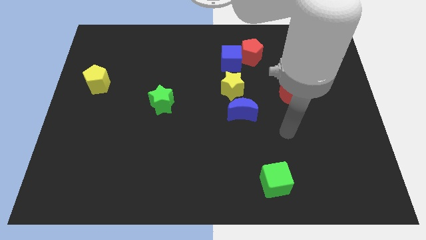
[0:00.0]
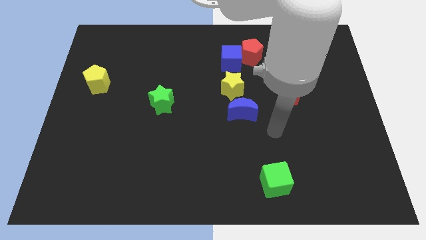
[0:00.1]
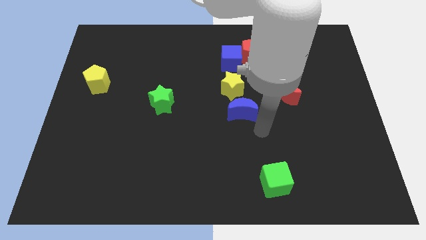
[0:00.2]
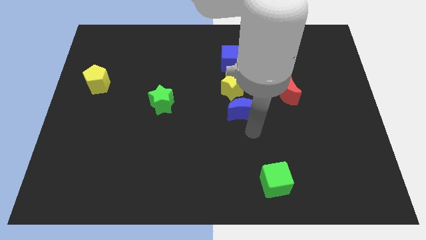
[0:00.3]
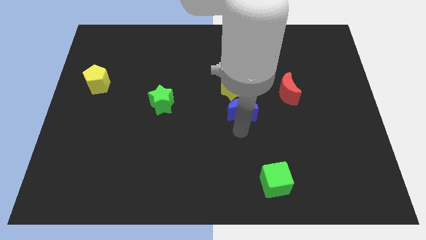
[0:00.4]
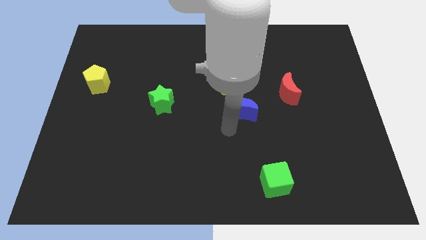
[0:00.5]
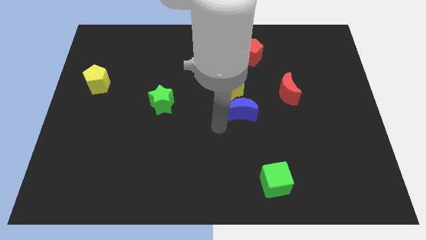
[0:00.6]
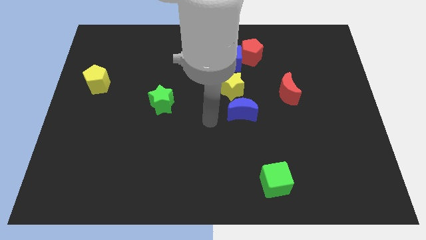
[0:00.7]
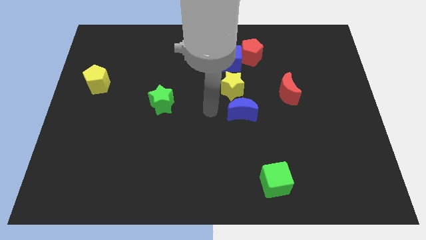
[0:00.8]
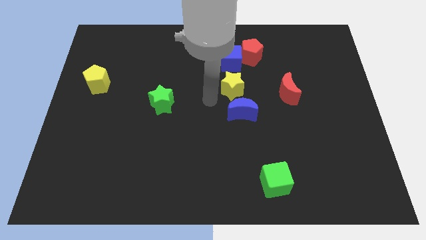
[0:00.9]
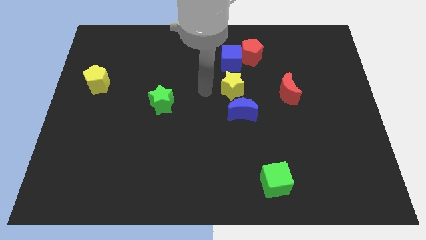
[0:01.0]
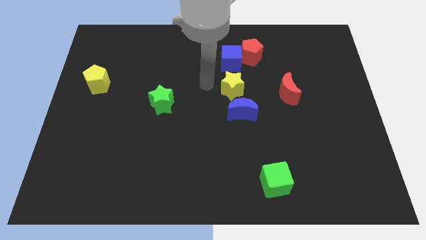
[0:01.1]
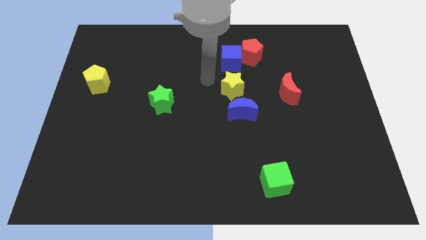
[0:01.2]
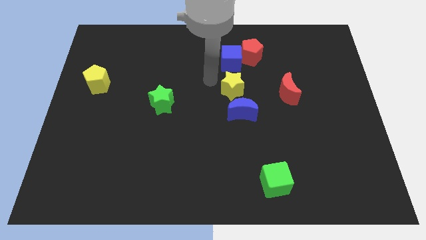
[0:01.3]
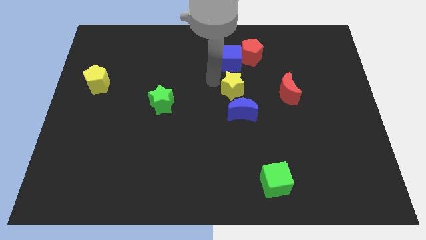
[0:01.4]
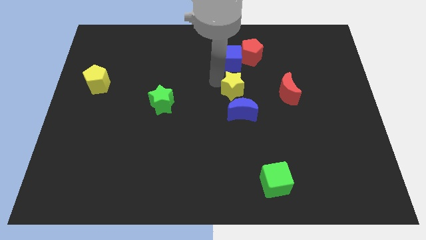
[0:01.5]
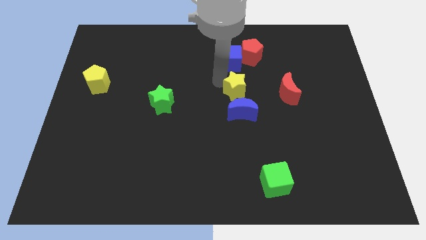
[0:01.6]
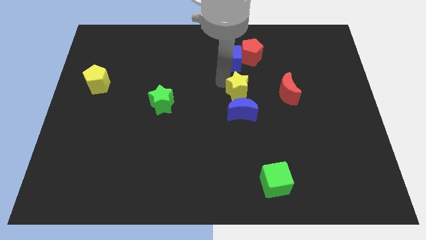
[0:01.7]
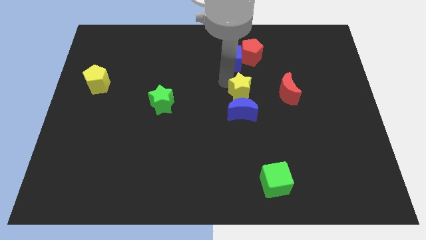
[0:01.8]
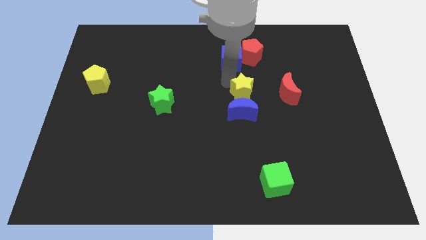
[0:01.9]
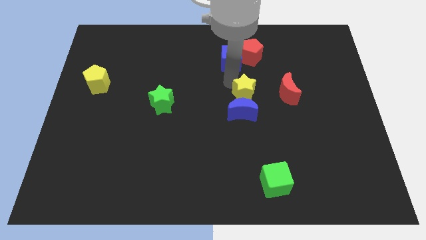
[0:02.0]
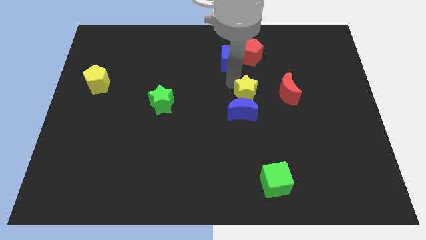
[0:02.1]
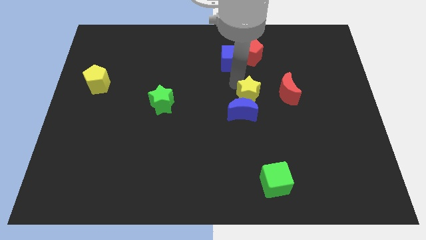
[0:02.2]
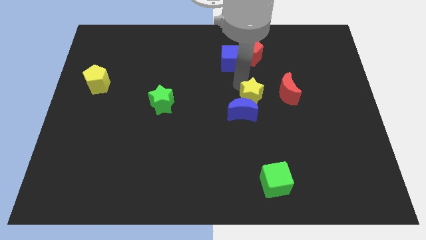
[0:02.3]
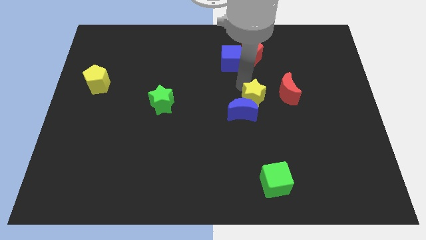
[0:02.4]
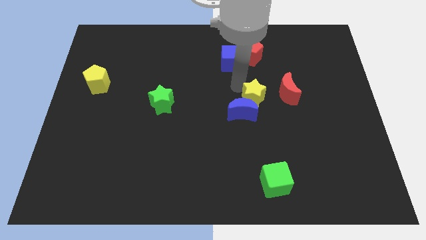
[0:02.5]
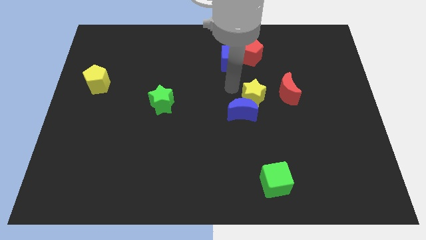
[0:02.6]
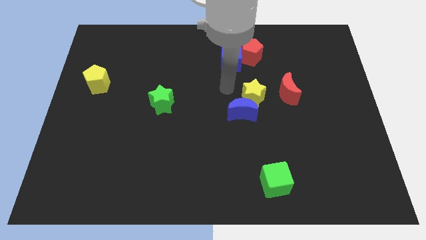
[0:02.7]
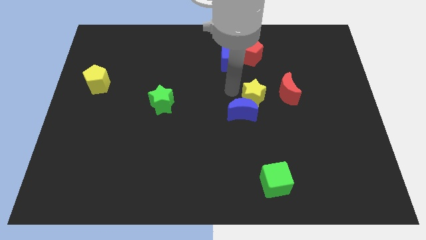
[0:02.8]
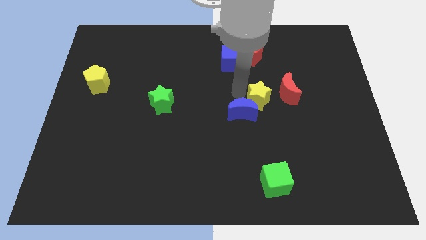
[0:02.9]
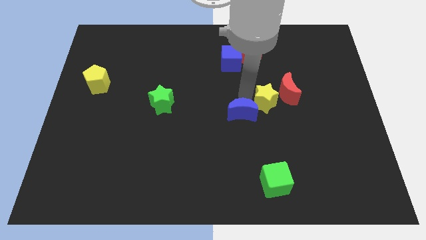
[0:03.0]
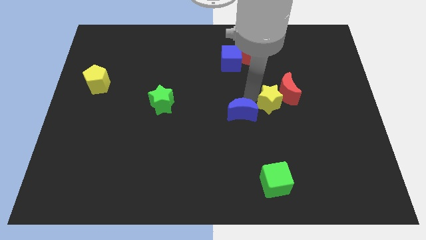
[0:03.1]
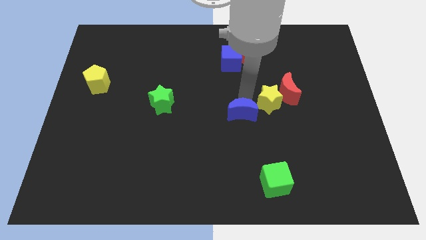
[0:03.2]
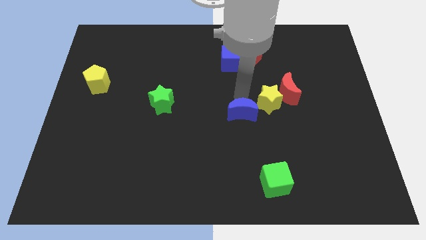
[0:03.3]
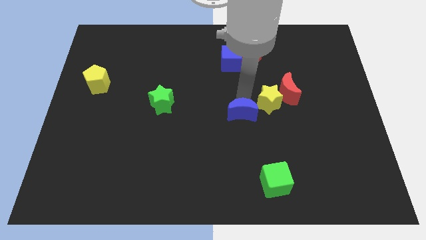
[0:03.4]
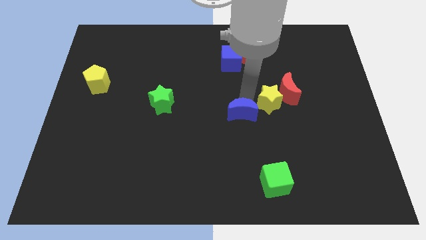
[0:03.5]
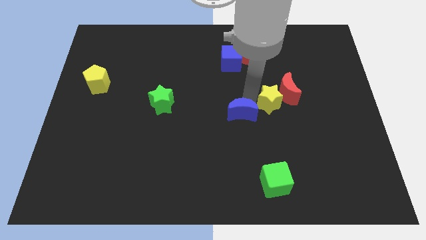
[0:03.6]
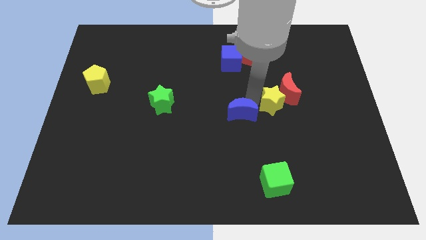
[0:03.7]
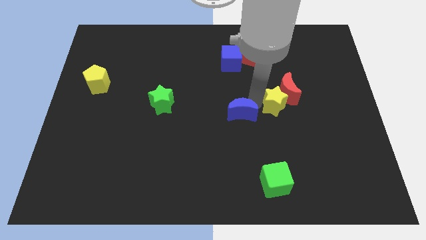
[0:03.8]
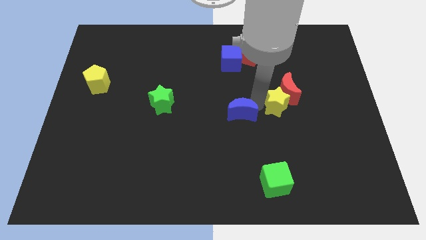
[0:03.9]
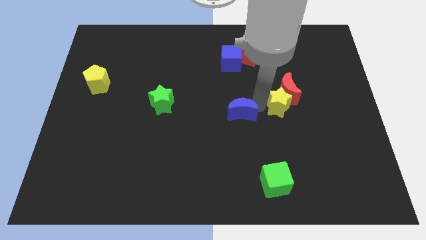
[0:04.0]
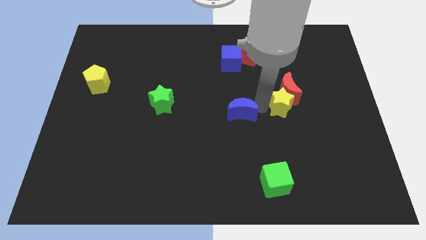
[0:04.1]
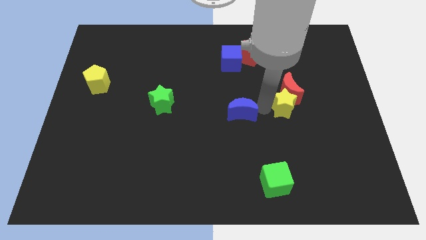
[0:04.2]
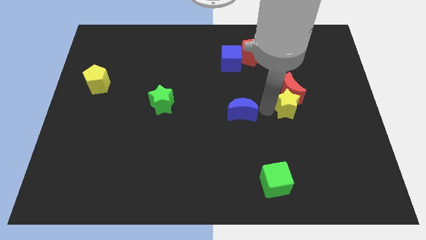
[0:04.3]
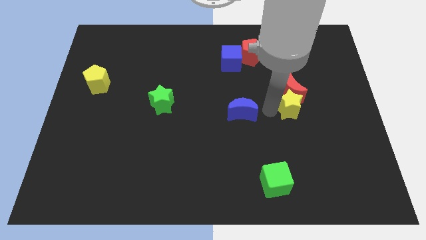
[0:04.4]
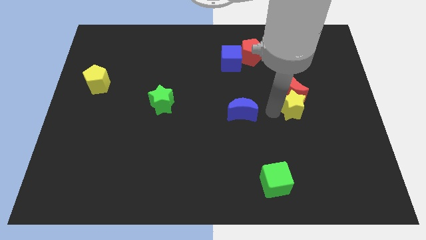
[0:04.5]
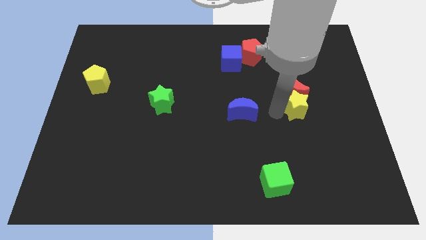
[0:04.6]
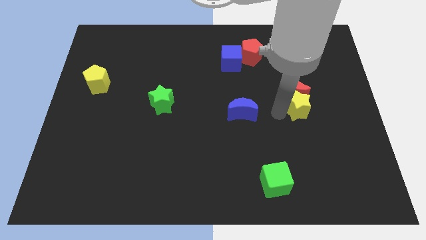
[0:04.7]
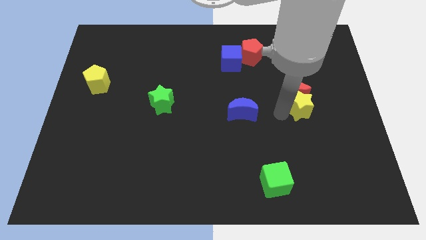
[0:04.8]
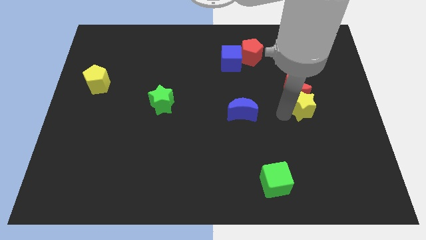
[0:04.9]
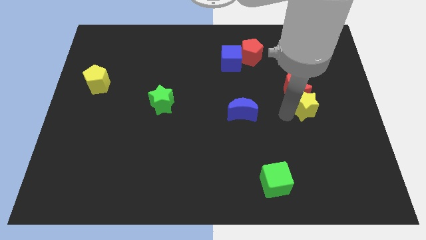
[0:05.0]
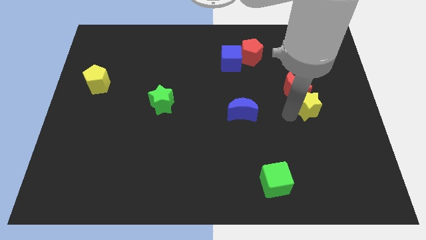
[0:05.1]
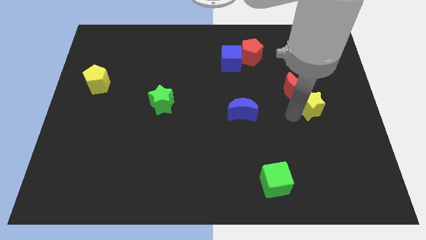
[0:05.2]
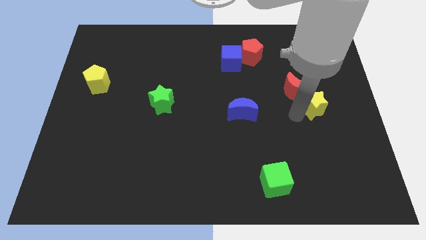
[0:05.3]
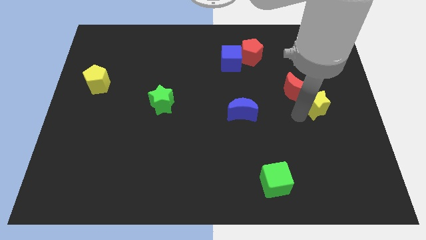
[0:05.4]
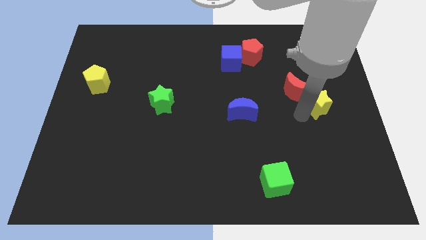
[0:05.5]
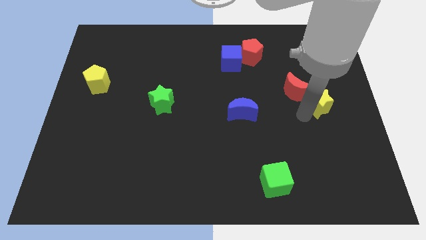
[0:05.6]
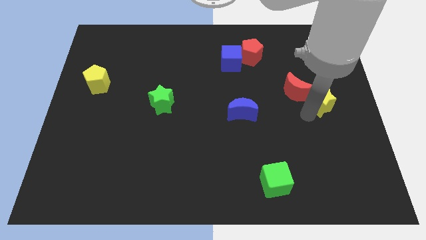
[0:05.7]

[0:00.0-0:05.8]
put the yellow star to the right side of the board

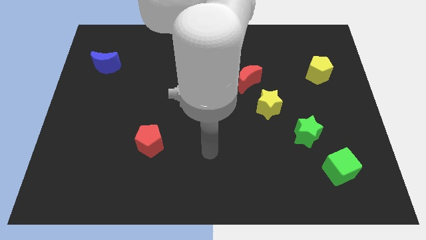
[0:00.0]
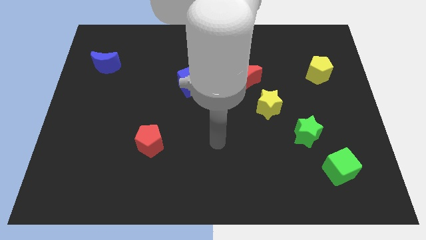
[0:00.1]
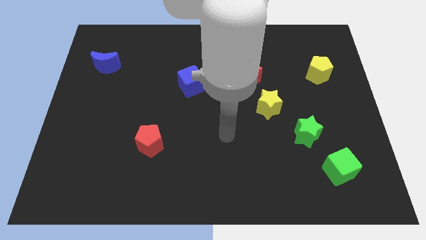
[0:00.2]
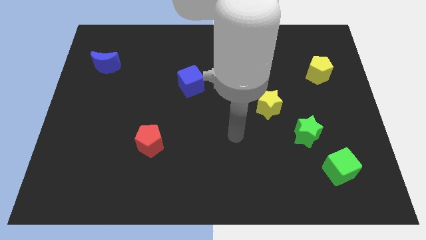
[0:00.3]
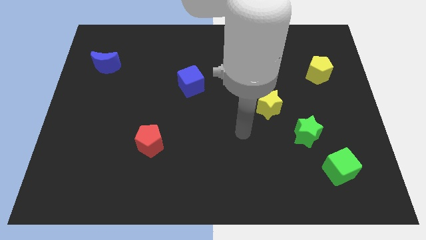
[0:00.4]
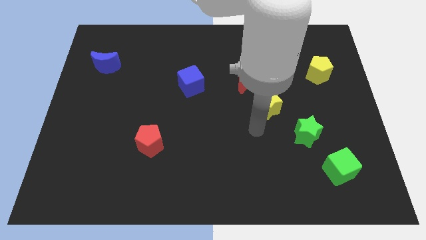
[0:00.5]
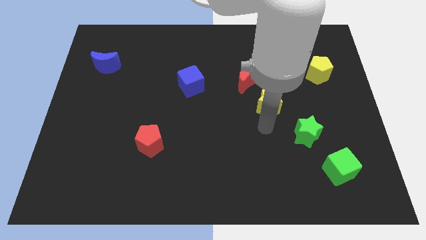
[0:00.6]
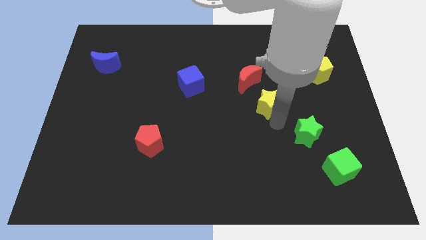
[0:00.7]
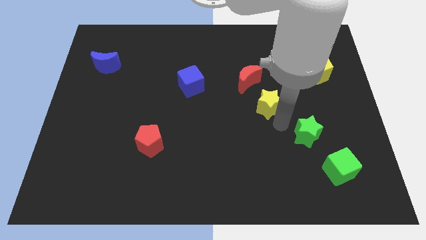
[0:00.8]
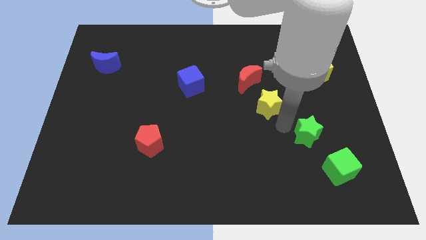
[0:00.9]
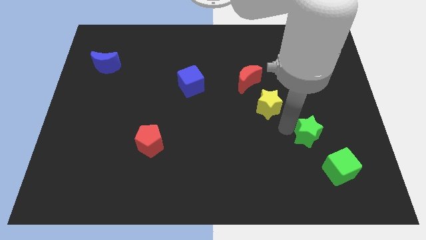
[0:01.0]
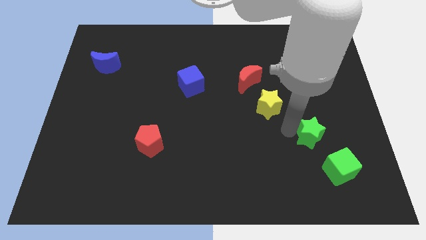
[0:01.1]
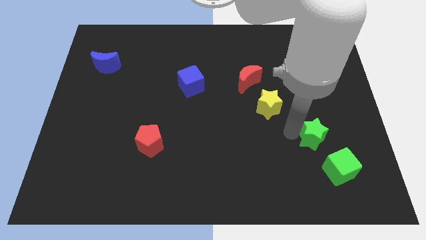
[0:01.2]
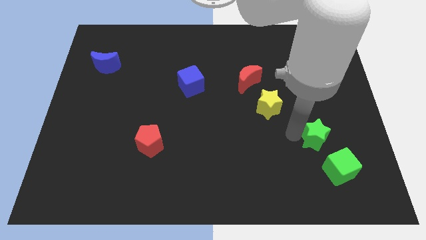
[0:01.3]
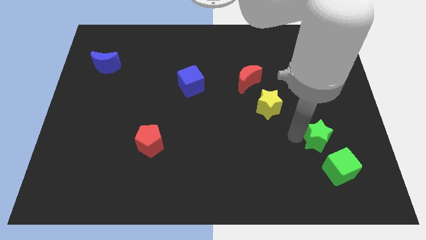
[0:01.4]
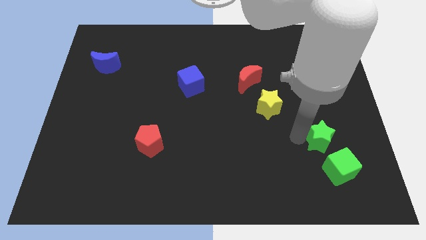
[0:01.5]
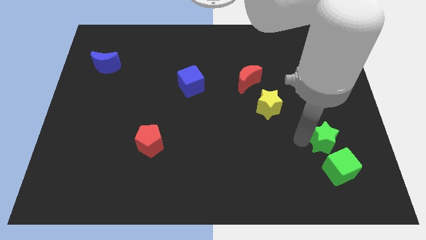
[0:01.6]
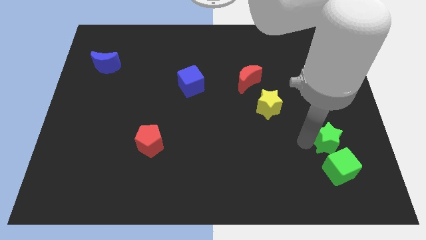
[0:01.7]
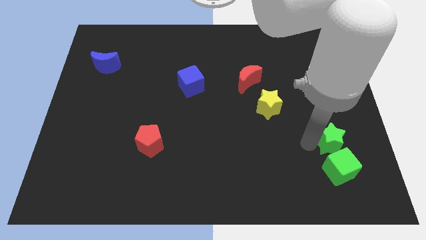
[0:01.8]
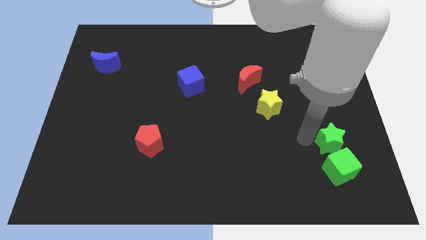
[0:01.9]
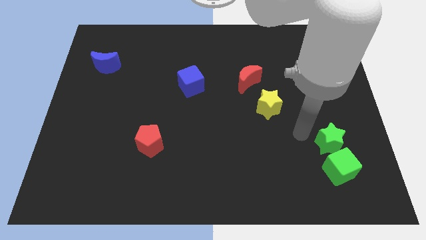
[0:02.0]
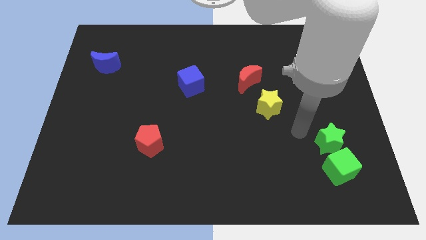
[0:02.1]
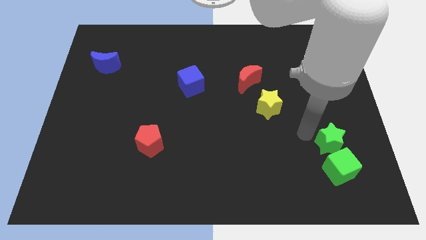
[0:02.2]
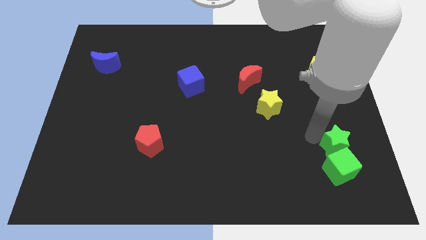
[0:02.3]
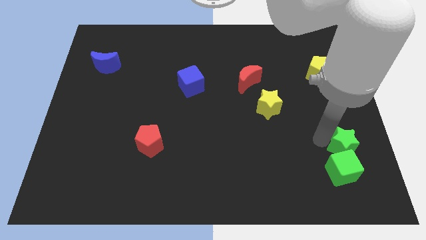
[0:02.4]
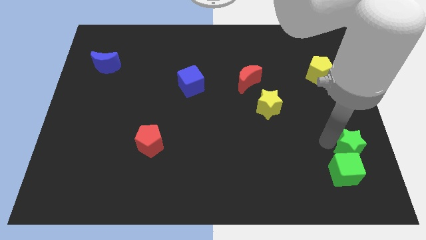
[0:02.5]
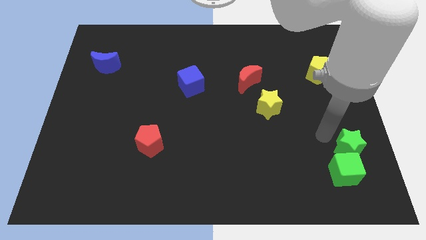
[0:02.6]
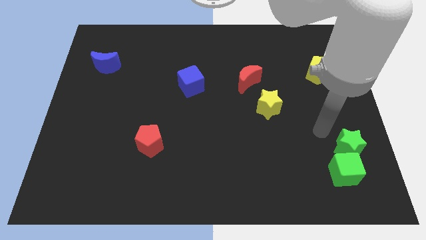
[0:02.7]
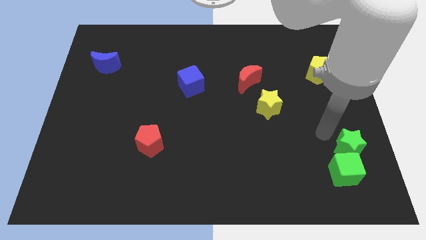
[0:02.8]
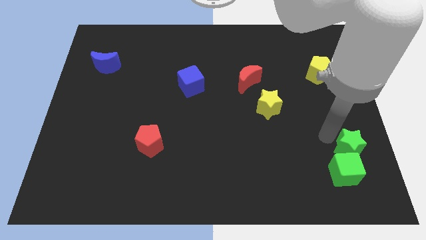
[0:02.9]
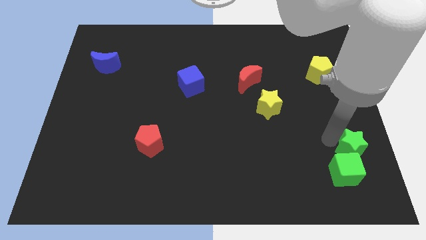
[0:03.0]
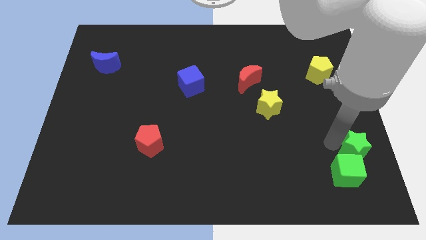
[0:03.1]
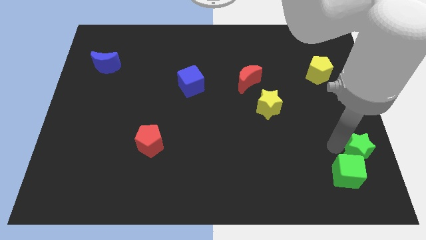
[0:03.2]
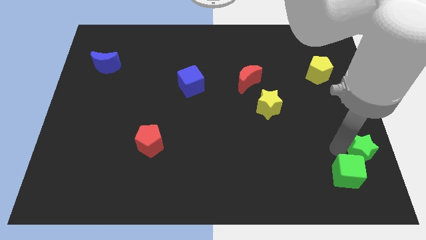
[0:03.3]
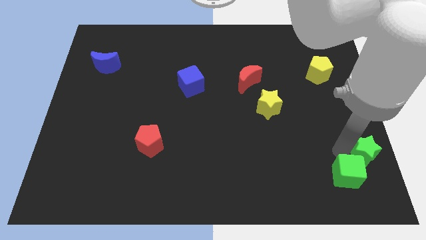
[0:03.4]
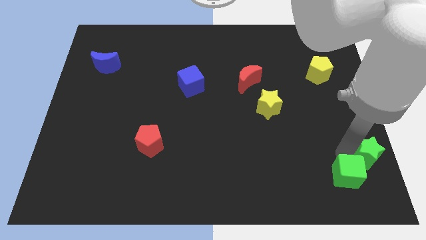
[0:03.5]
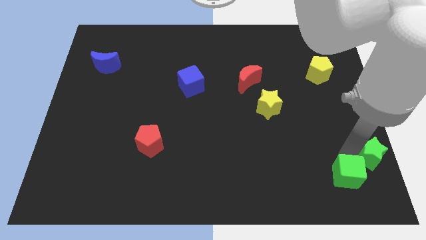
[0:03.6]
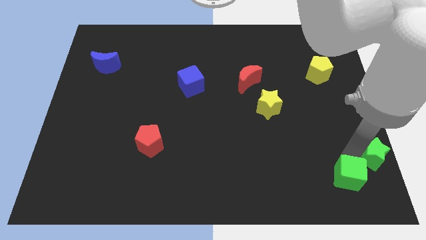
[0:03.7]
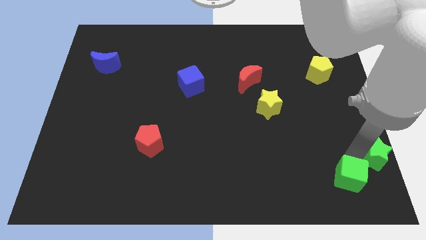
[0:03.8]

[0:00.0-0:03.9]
push the green star to the bottom right of the board
